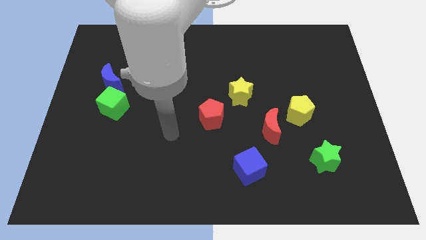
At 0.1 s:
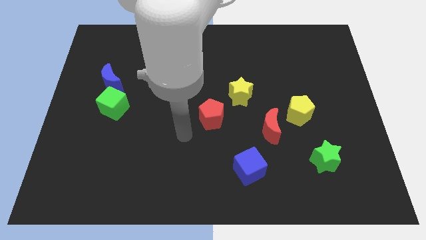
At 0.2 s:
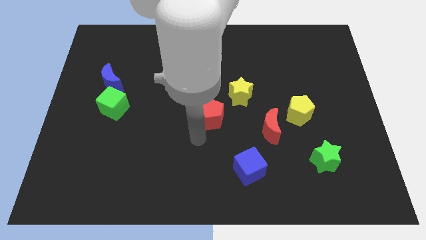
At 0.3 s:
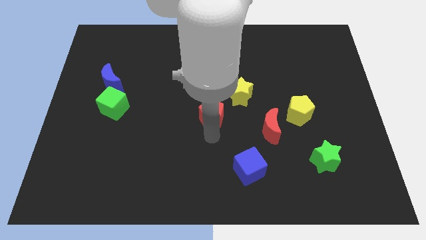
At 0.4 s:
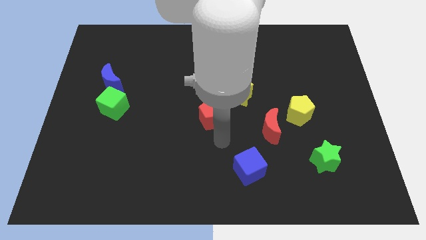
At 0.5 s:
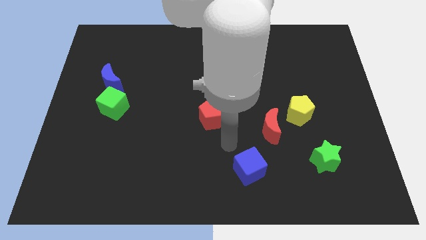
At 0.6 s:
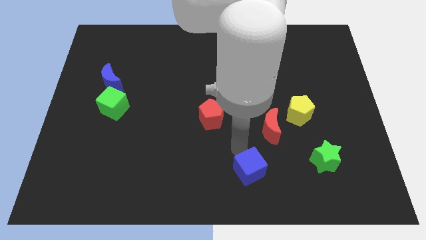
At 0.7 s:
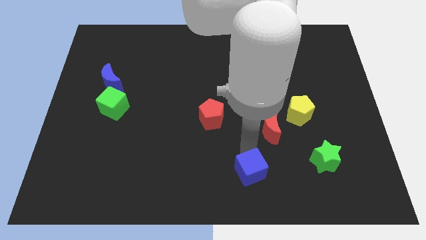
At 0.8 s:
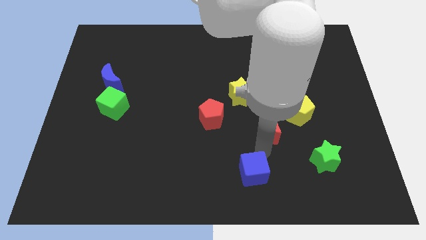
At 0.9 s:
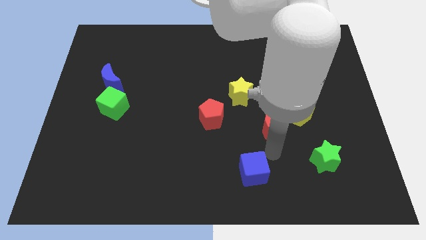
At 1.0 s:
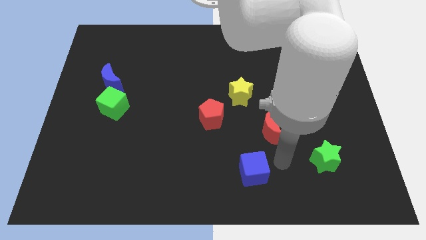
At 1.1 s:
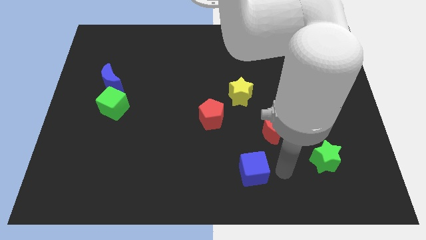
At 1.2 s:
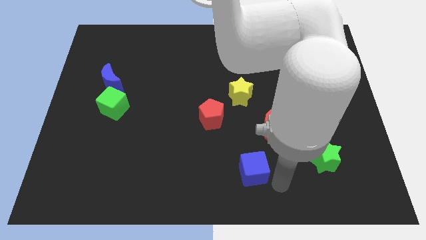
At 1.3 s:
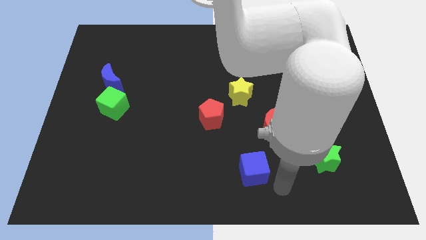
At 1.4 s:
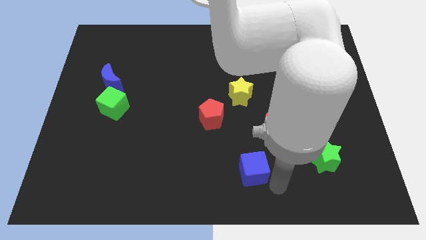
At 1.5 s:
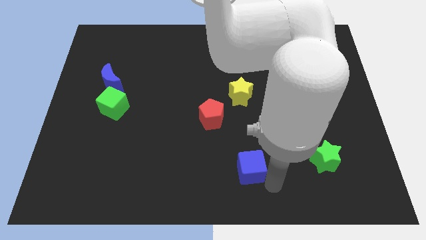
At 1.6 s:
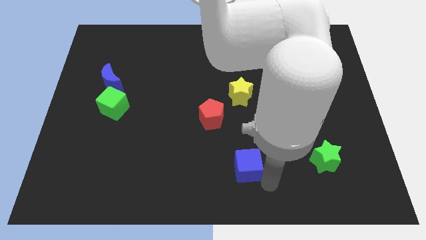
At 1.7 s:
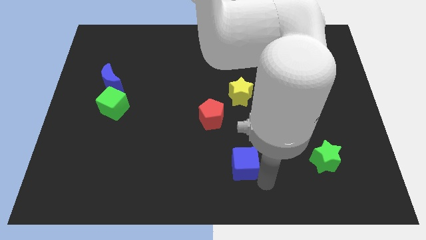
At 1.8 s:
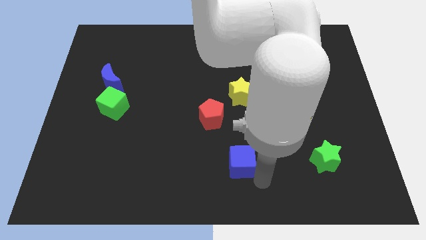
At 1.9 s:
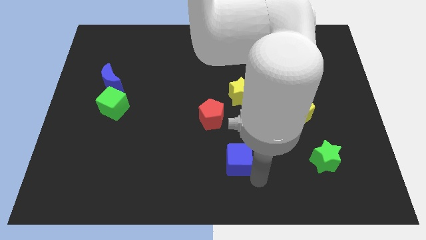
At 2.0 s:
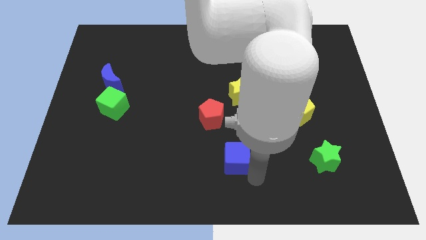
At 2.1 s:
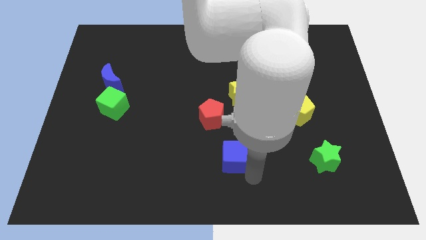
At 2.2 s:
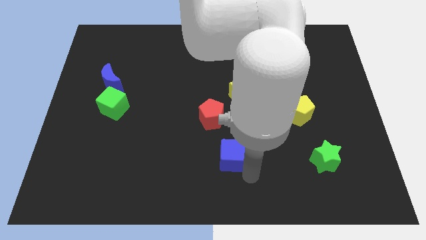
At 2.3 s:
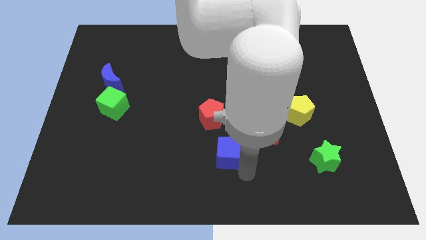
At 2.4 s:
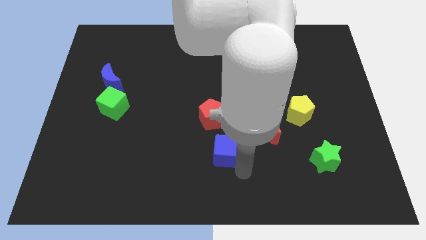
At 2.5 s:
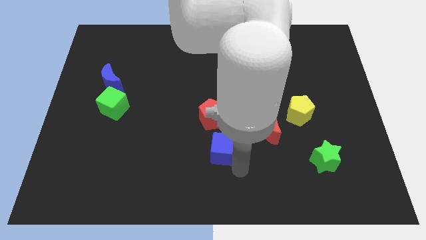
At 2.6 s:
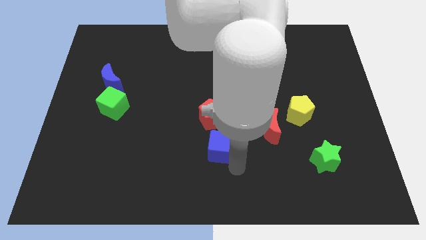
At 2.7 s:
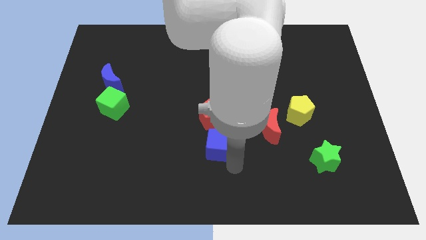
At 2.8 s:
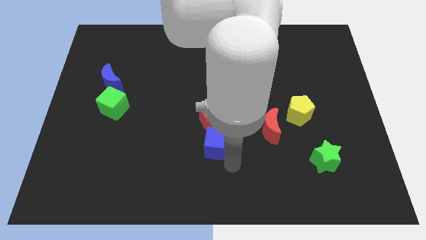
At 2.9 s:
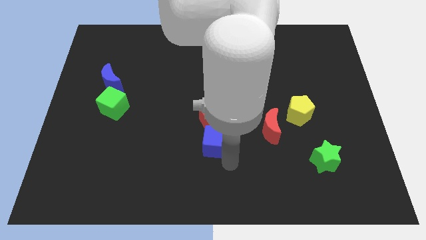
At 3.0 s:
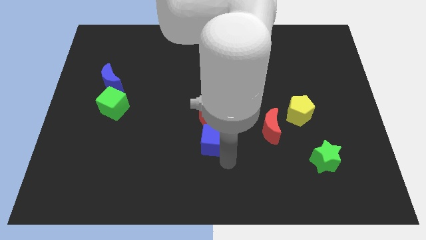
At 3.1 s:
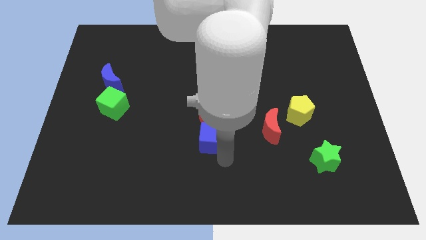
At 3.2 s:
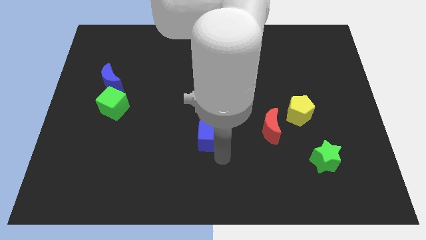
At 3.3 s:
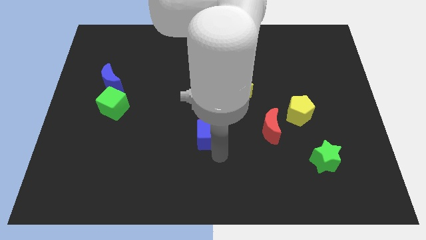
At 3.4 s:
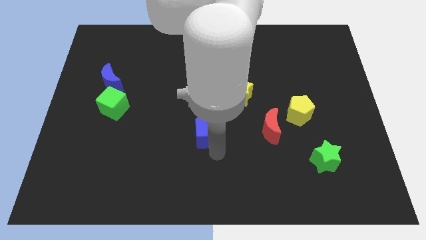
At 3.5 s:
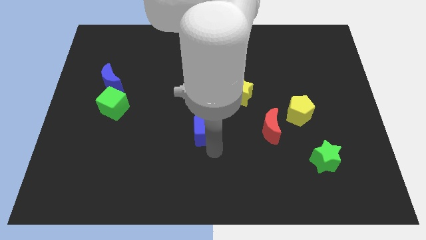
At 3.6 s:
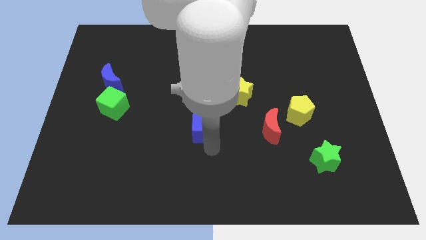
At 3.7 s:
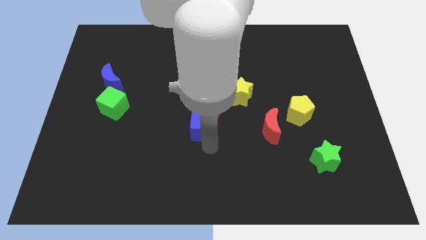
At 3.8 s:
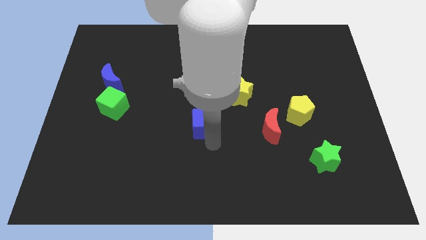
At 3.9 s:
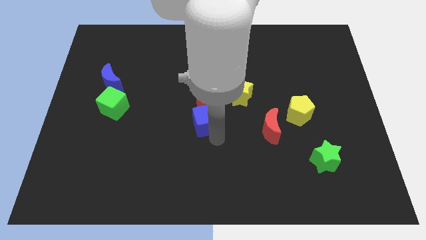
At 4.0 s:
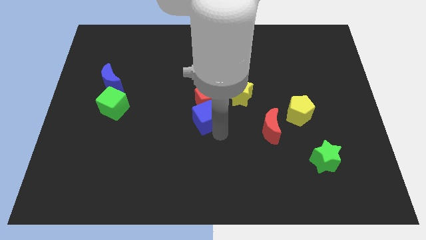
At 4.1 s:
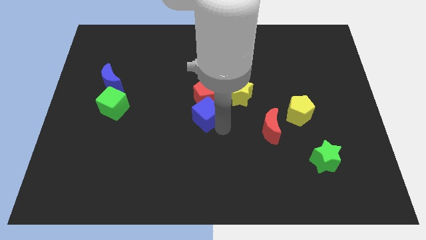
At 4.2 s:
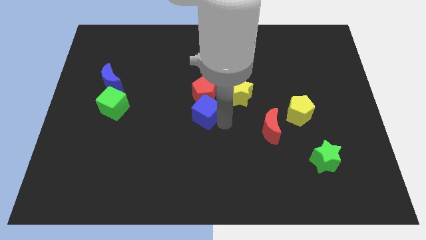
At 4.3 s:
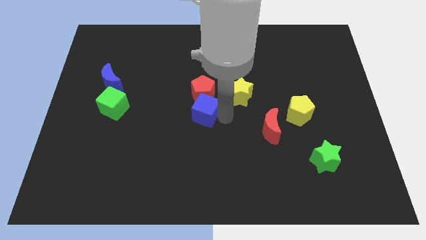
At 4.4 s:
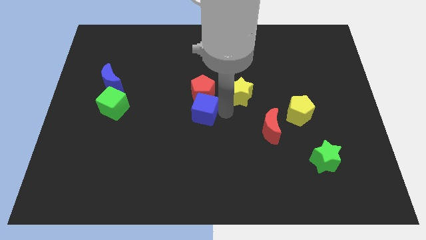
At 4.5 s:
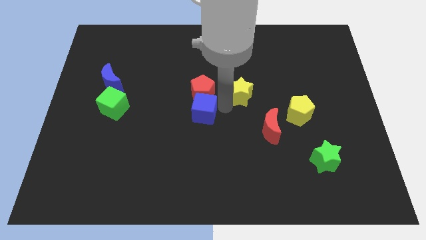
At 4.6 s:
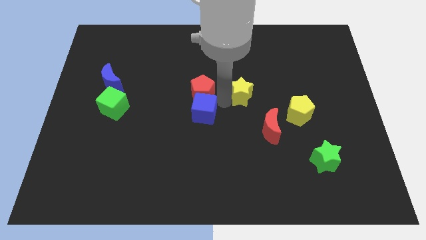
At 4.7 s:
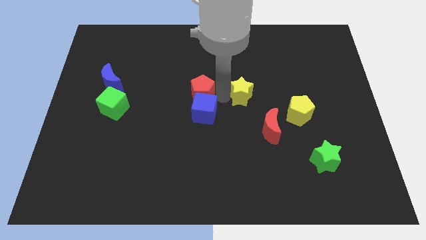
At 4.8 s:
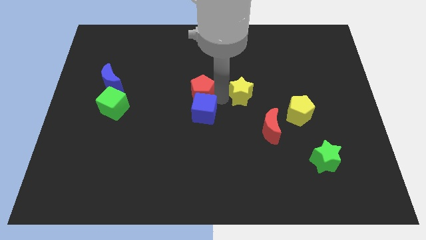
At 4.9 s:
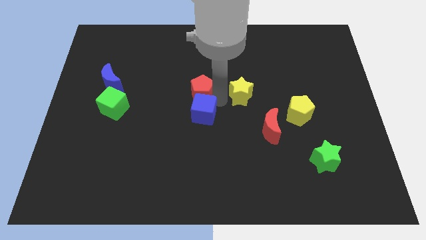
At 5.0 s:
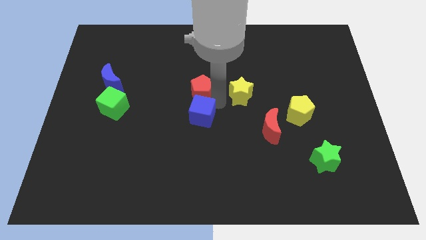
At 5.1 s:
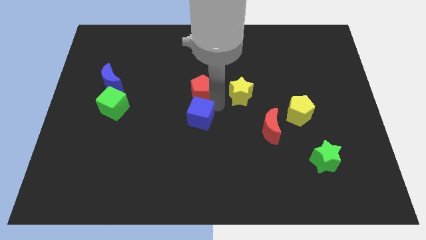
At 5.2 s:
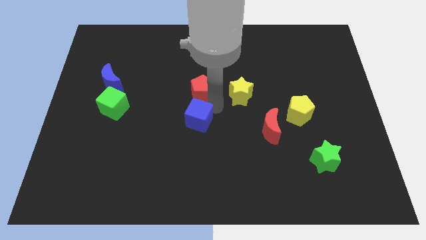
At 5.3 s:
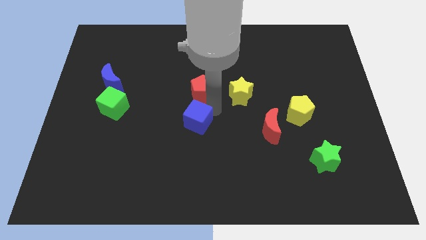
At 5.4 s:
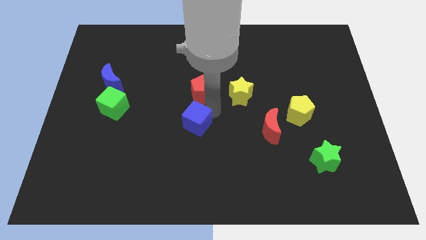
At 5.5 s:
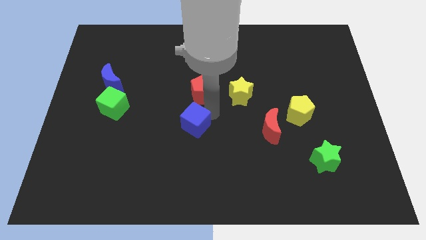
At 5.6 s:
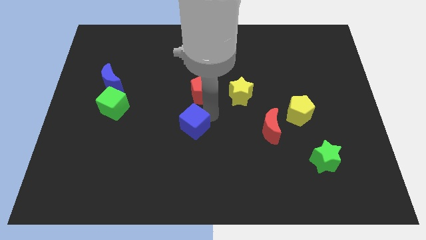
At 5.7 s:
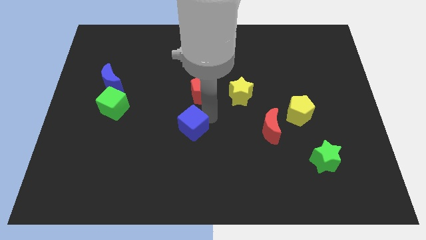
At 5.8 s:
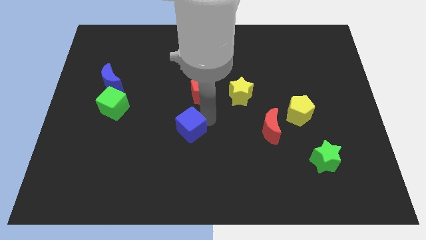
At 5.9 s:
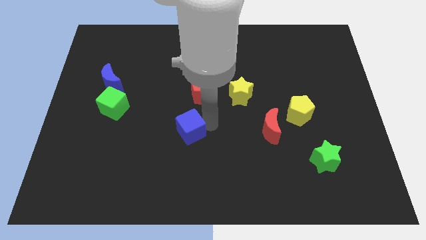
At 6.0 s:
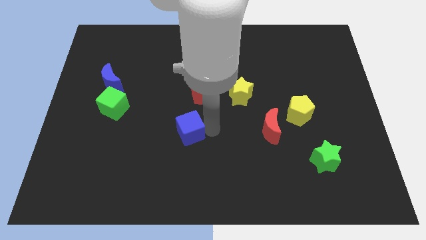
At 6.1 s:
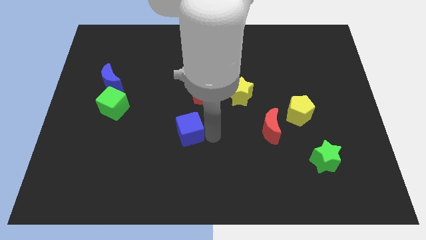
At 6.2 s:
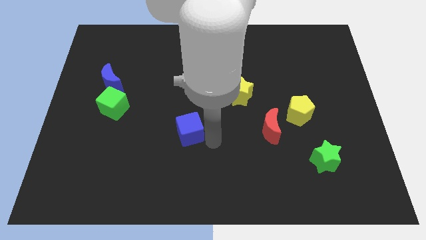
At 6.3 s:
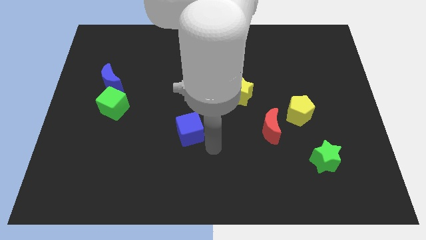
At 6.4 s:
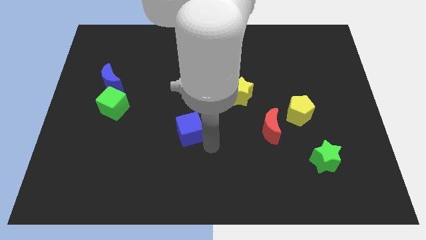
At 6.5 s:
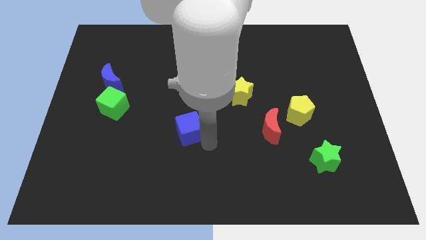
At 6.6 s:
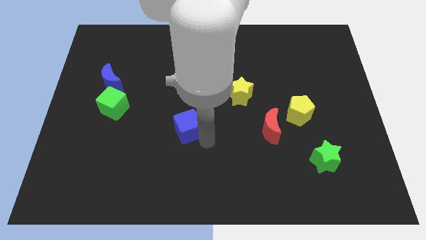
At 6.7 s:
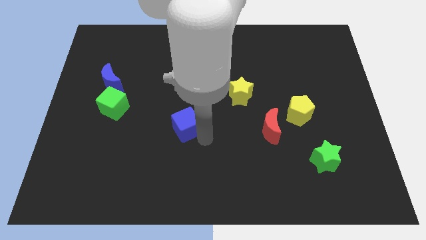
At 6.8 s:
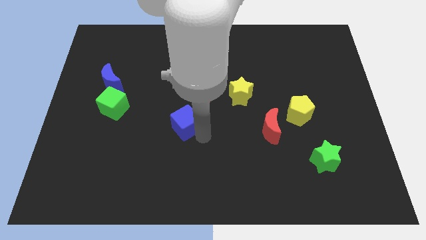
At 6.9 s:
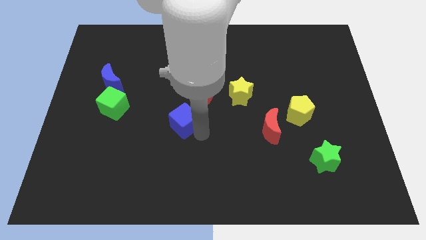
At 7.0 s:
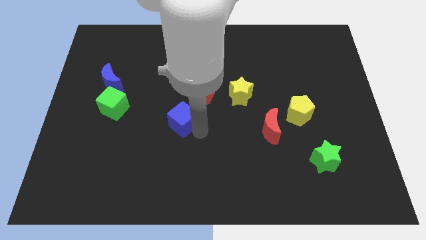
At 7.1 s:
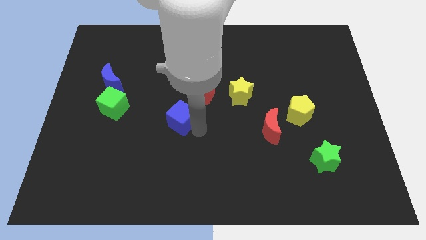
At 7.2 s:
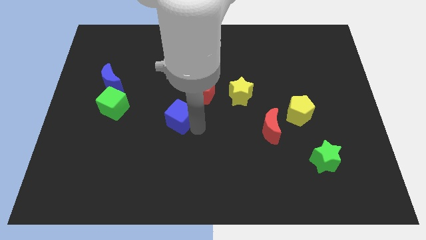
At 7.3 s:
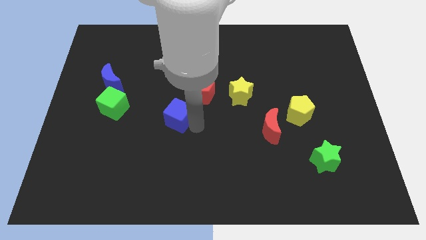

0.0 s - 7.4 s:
push the blue cube upwards and to the left

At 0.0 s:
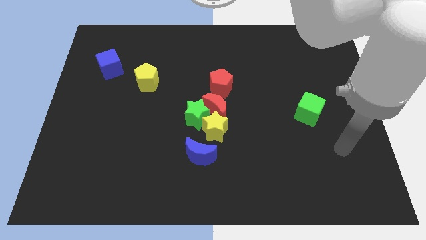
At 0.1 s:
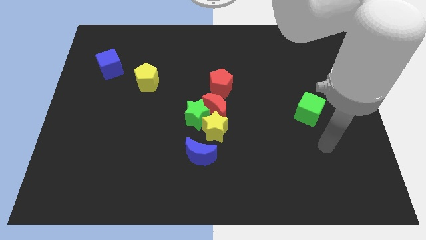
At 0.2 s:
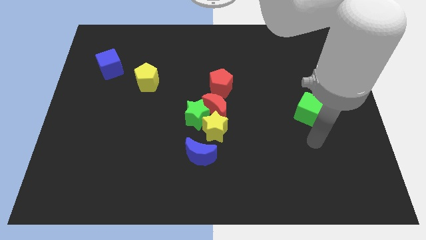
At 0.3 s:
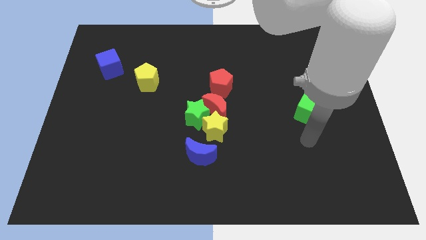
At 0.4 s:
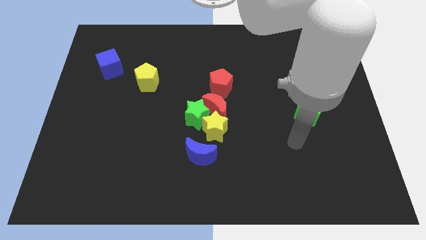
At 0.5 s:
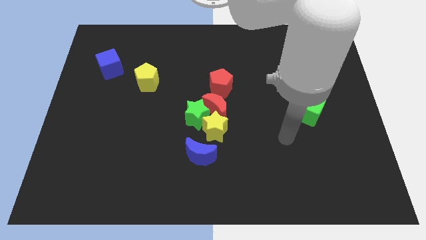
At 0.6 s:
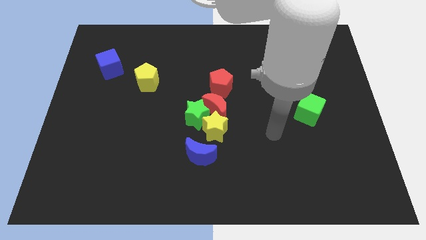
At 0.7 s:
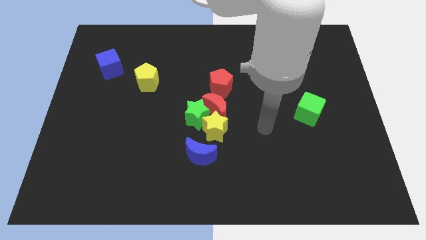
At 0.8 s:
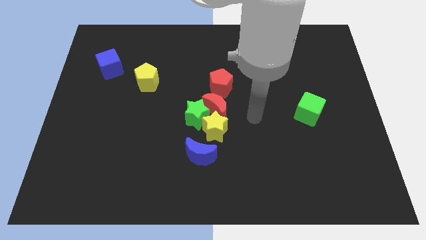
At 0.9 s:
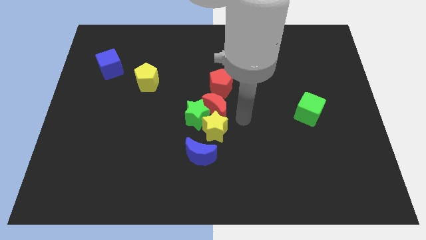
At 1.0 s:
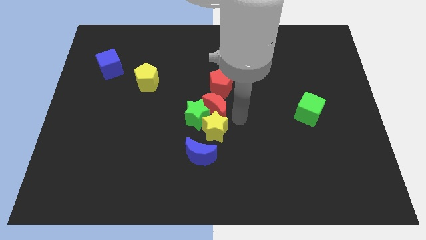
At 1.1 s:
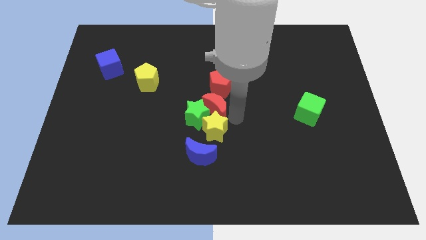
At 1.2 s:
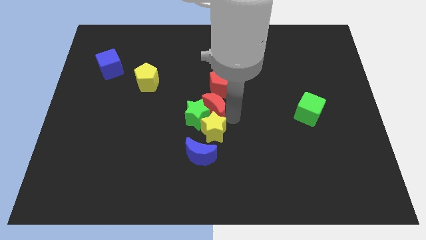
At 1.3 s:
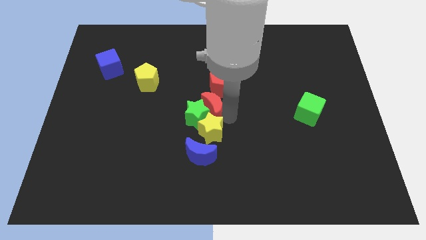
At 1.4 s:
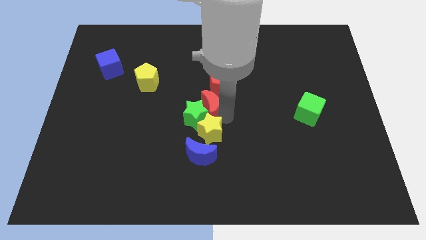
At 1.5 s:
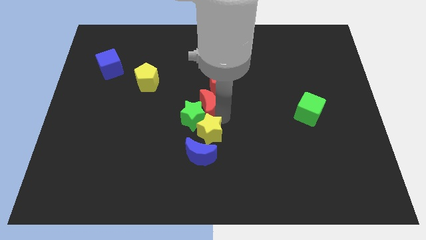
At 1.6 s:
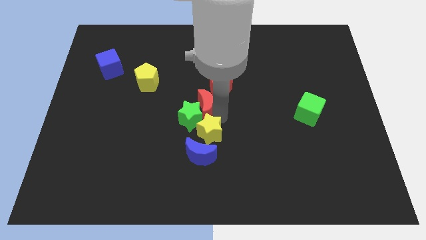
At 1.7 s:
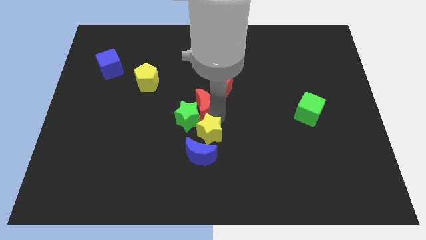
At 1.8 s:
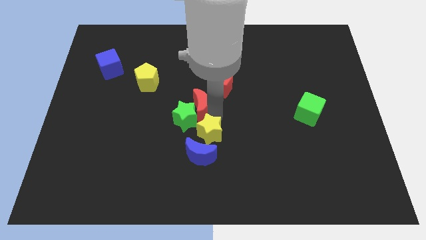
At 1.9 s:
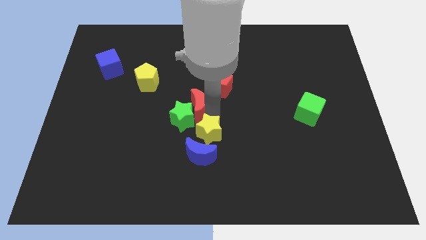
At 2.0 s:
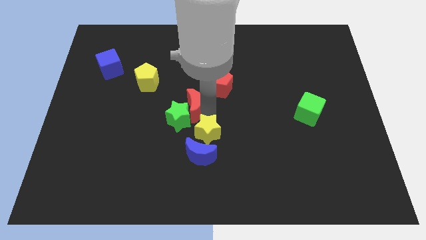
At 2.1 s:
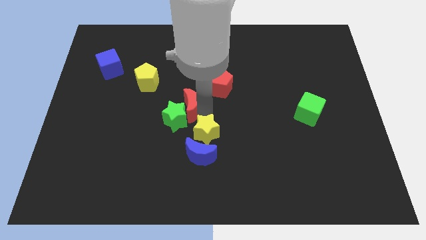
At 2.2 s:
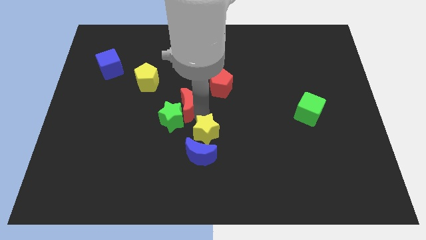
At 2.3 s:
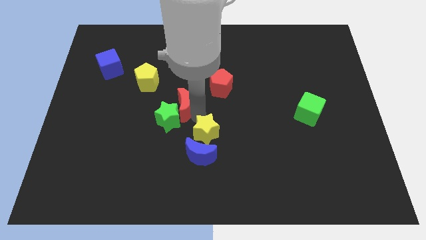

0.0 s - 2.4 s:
push the red moon a little bit to the left
